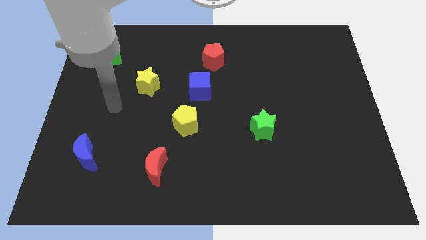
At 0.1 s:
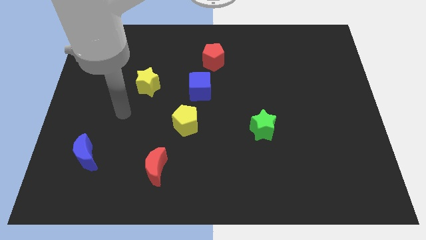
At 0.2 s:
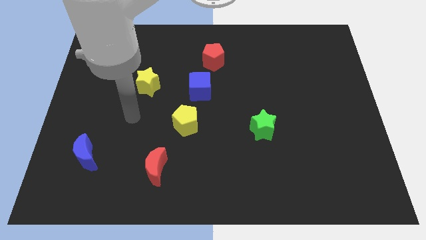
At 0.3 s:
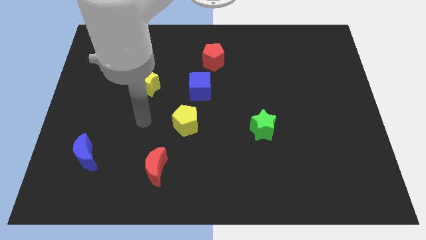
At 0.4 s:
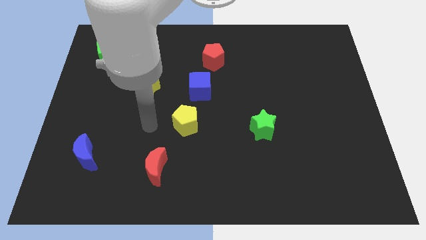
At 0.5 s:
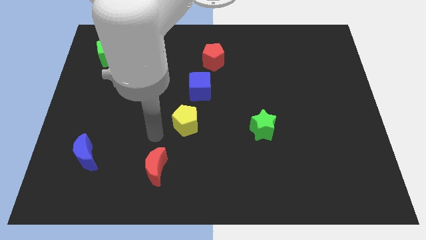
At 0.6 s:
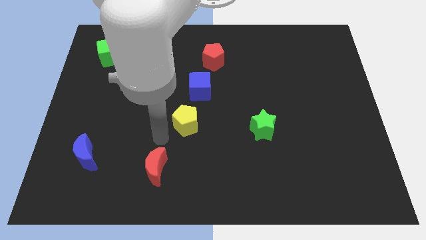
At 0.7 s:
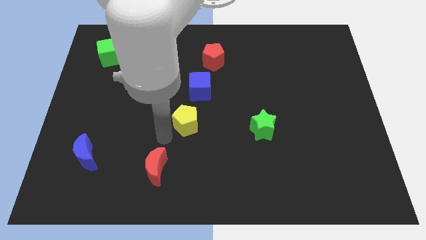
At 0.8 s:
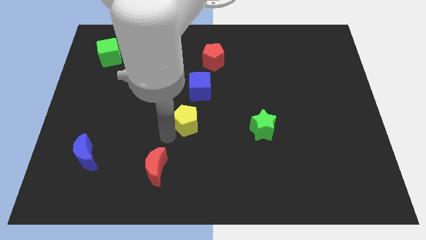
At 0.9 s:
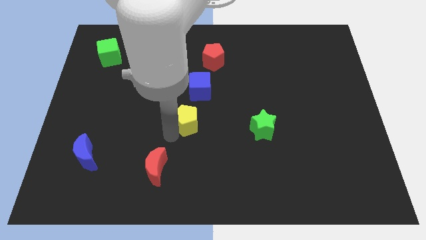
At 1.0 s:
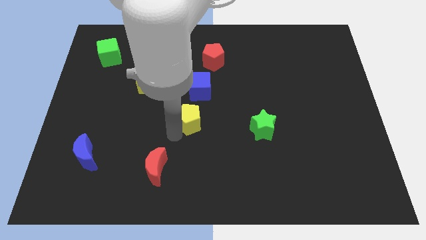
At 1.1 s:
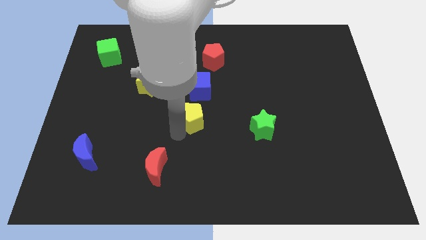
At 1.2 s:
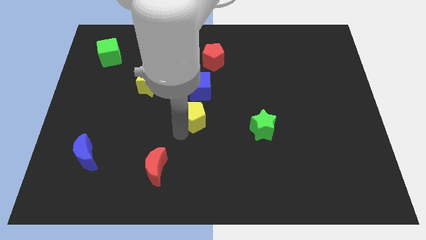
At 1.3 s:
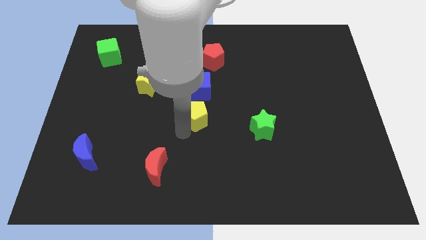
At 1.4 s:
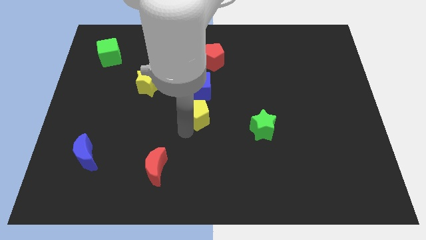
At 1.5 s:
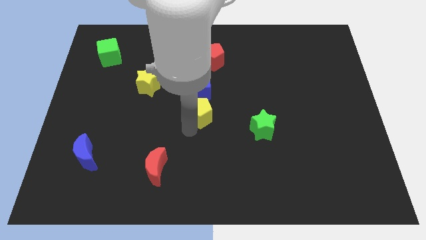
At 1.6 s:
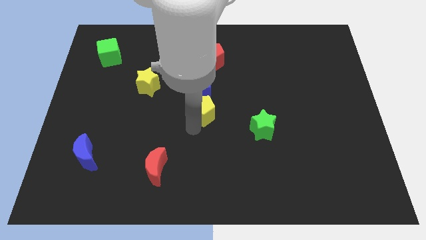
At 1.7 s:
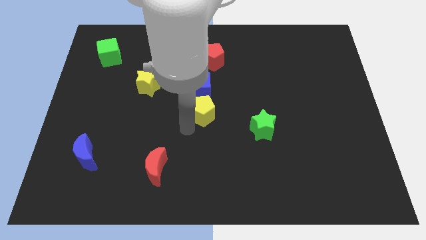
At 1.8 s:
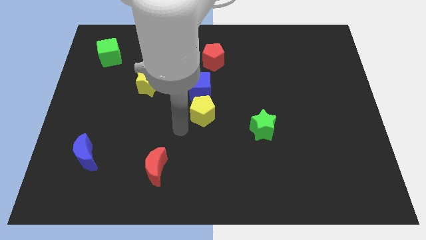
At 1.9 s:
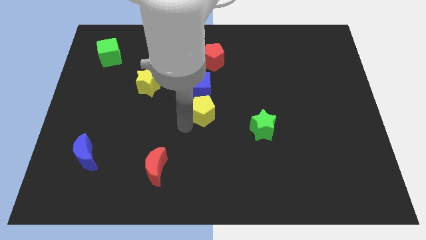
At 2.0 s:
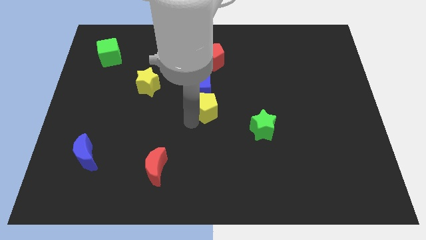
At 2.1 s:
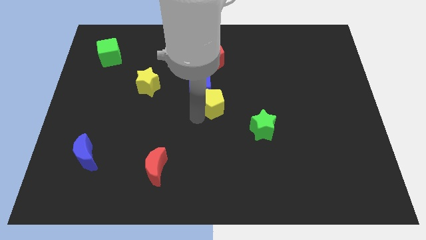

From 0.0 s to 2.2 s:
slightly move the yellow pentagon diagonally up and right

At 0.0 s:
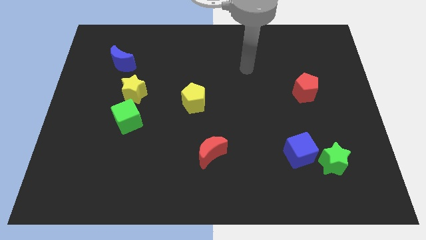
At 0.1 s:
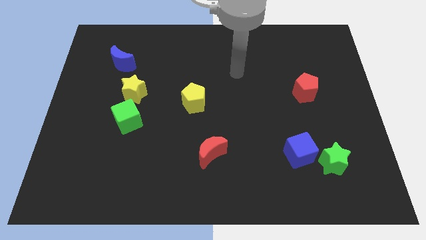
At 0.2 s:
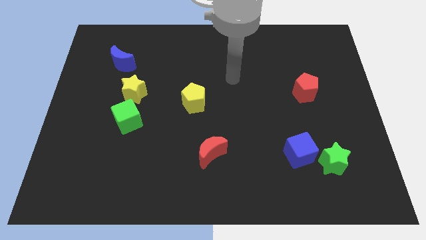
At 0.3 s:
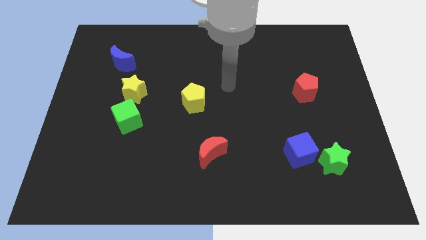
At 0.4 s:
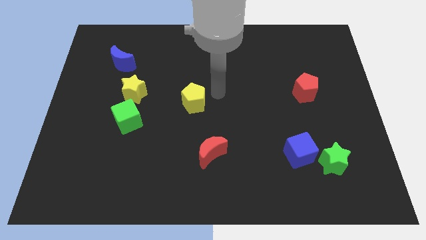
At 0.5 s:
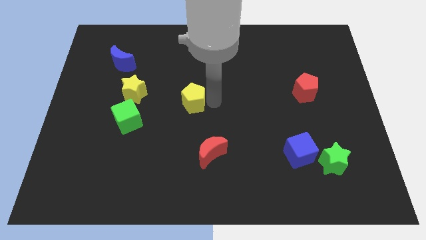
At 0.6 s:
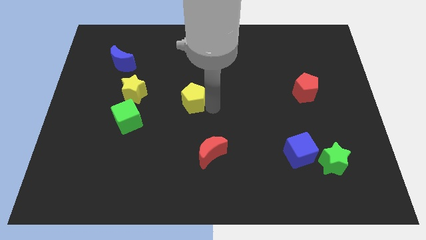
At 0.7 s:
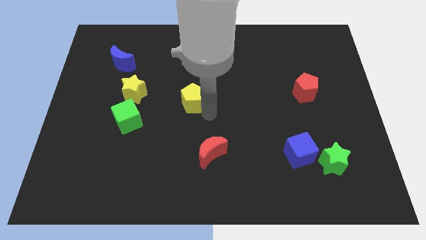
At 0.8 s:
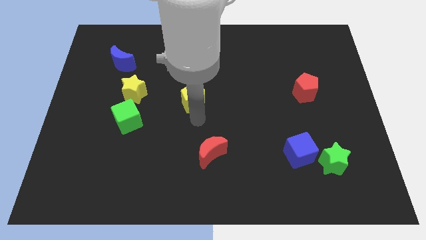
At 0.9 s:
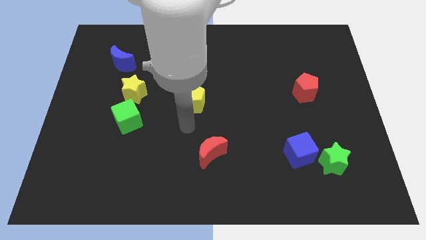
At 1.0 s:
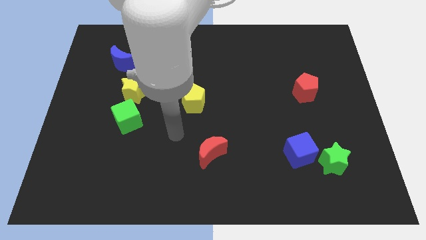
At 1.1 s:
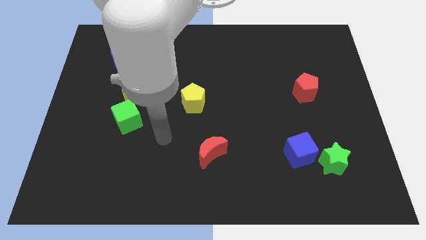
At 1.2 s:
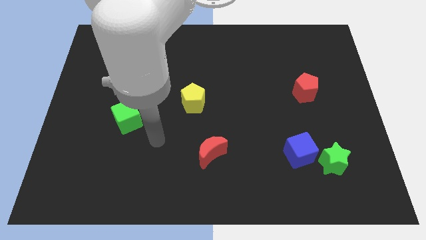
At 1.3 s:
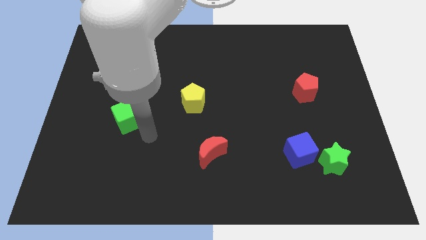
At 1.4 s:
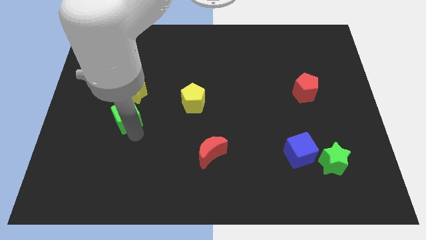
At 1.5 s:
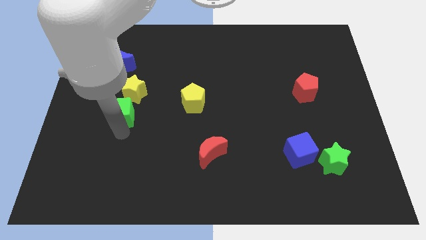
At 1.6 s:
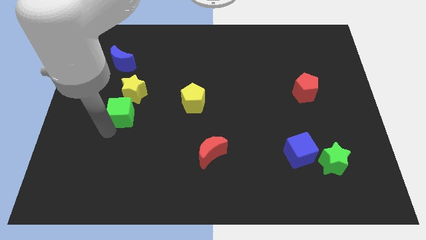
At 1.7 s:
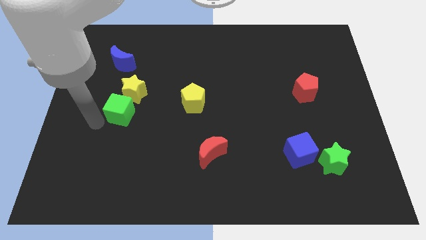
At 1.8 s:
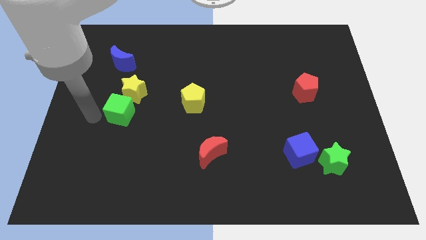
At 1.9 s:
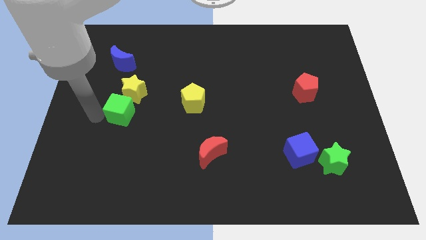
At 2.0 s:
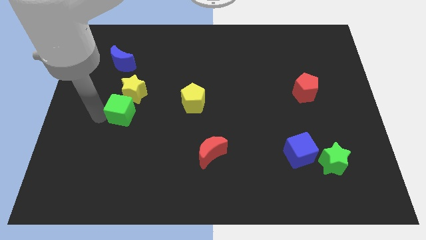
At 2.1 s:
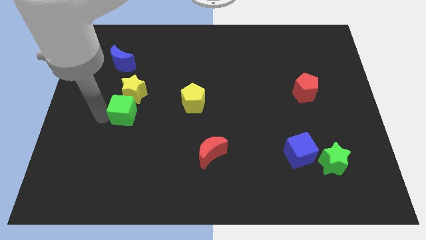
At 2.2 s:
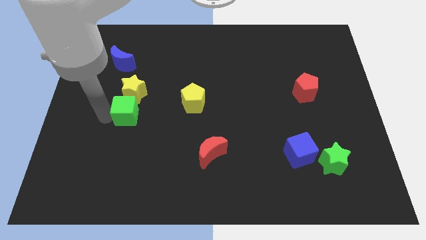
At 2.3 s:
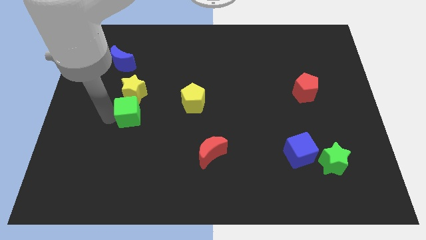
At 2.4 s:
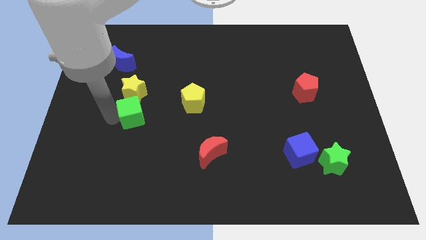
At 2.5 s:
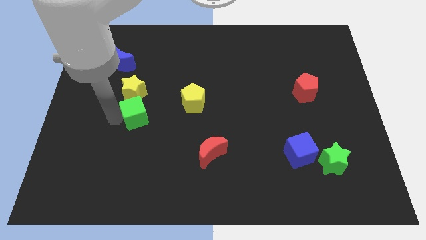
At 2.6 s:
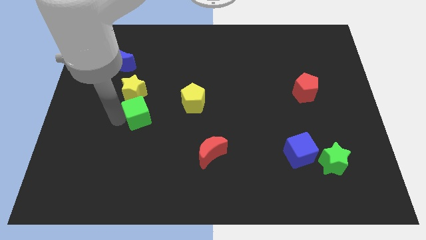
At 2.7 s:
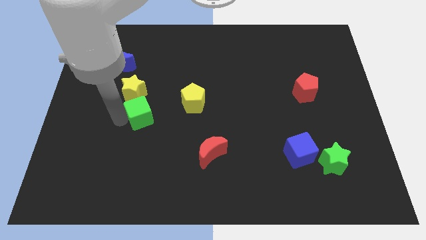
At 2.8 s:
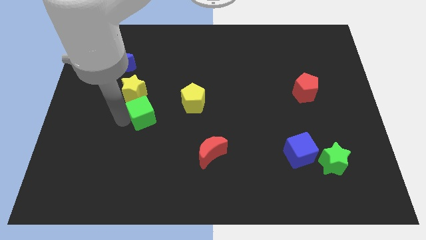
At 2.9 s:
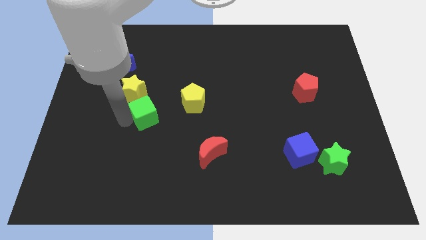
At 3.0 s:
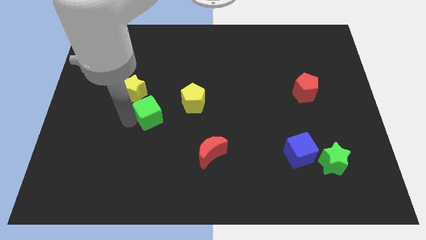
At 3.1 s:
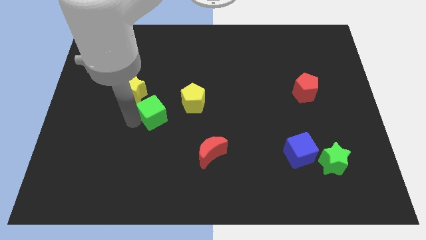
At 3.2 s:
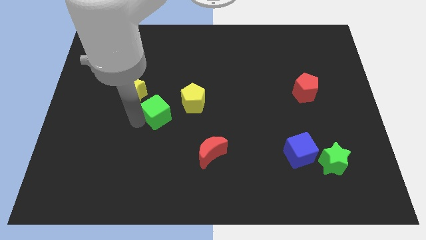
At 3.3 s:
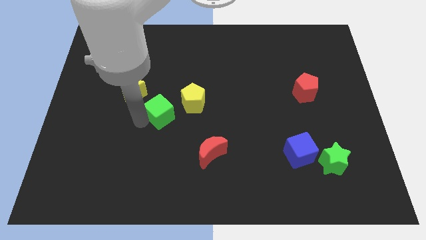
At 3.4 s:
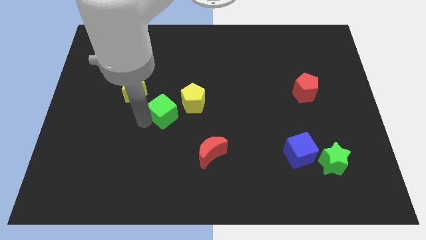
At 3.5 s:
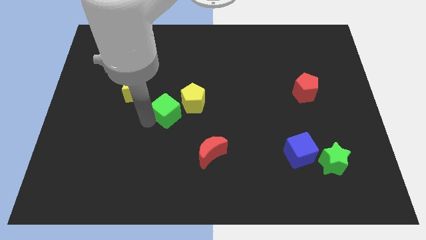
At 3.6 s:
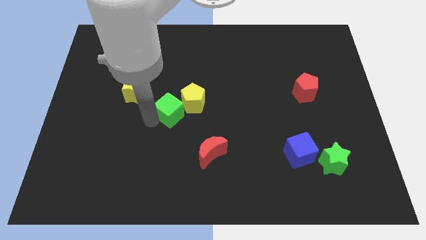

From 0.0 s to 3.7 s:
slide the green cube somewhat upwards and right

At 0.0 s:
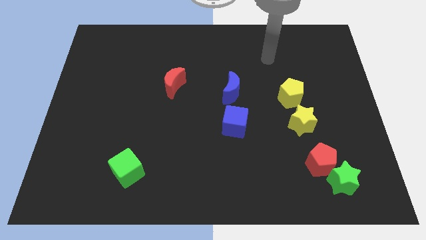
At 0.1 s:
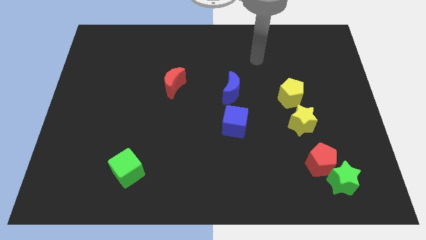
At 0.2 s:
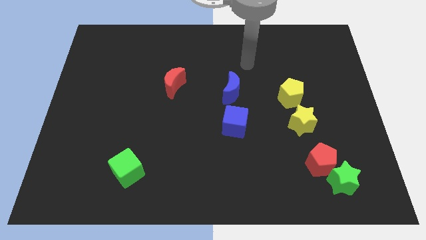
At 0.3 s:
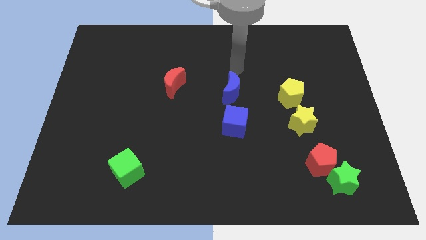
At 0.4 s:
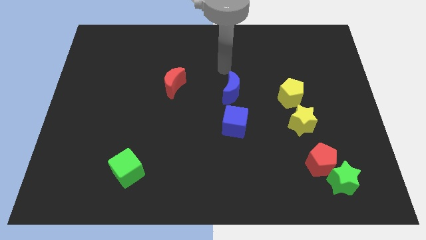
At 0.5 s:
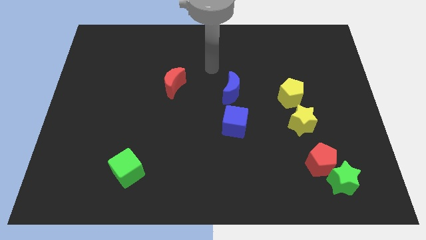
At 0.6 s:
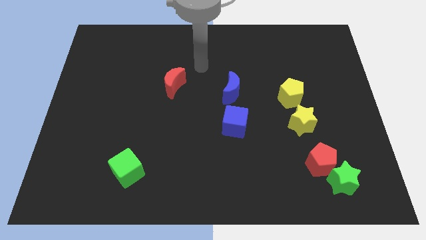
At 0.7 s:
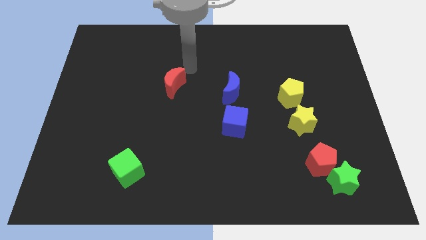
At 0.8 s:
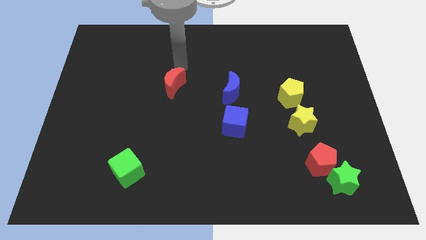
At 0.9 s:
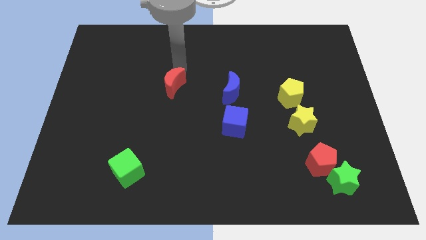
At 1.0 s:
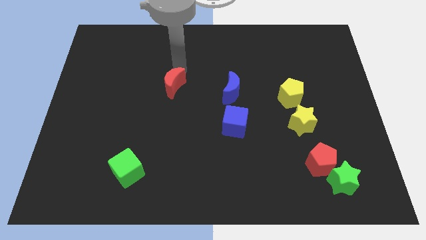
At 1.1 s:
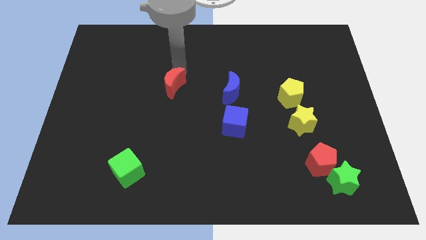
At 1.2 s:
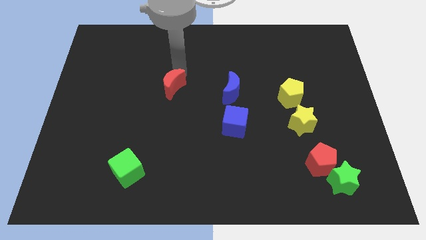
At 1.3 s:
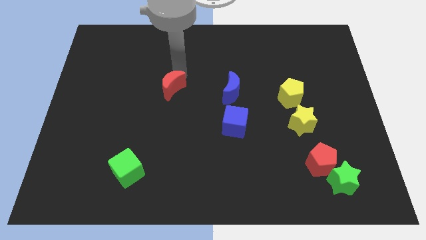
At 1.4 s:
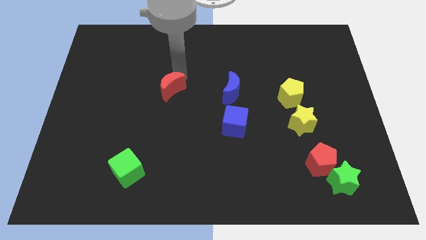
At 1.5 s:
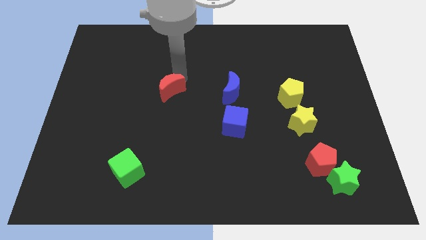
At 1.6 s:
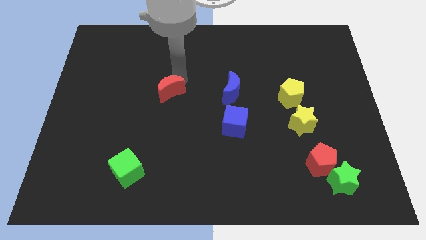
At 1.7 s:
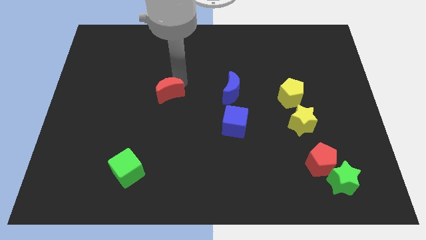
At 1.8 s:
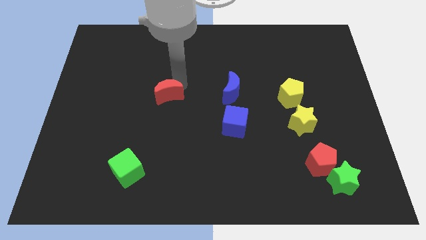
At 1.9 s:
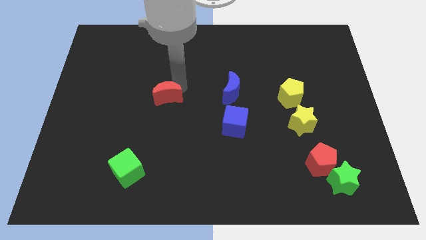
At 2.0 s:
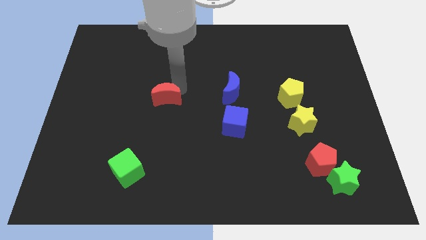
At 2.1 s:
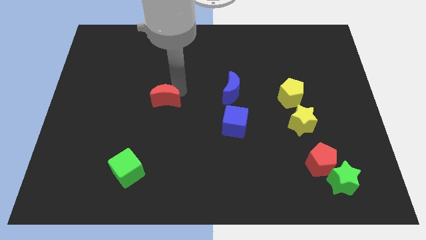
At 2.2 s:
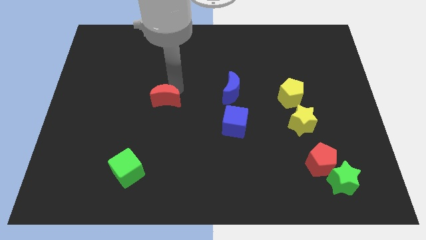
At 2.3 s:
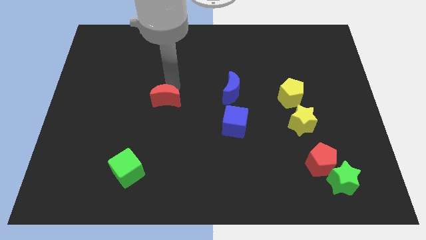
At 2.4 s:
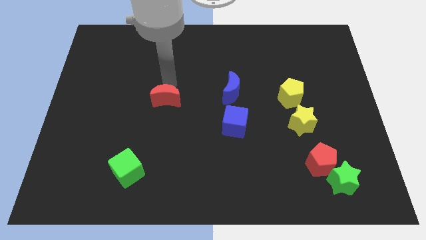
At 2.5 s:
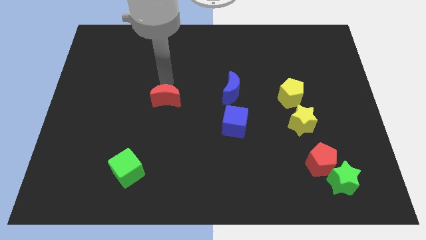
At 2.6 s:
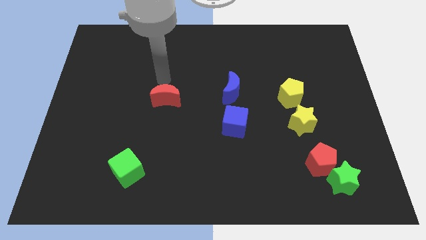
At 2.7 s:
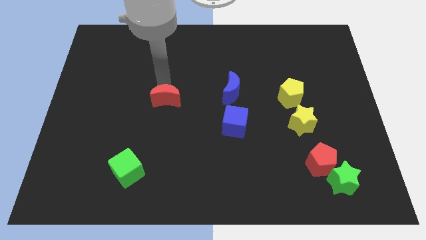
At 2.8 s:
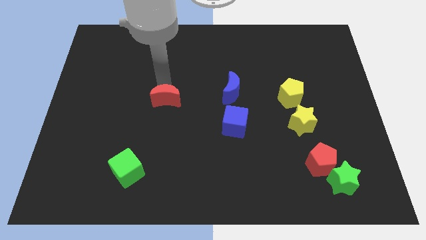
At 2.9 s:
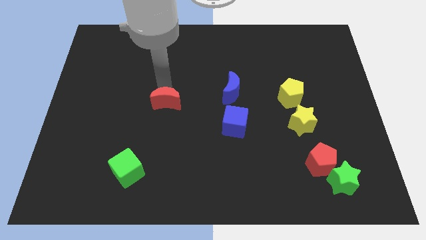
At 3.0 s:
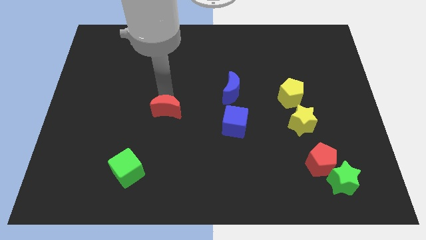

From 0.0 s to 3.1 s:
move the red moon slightly down
